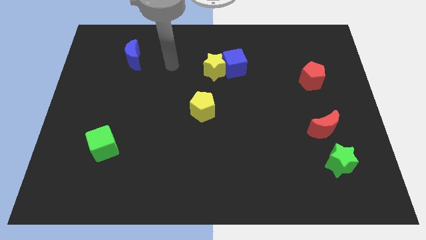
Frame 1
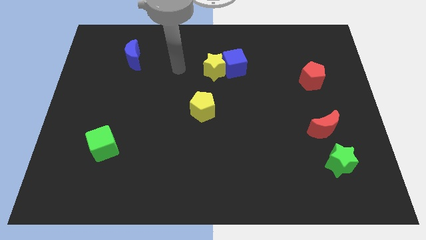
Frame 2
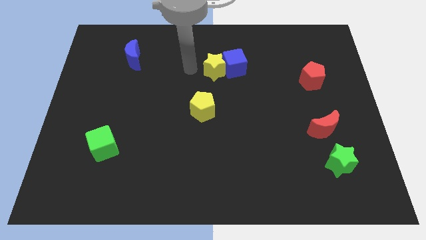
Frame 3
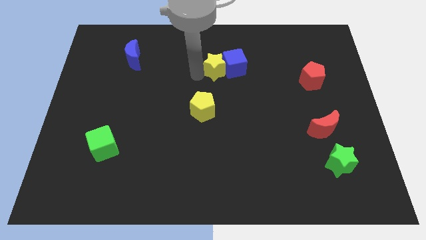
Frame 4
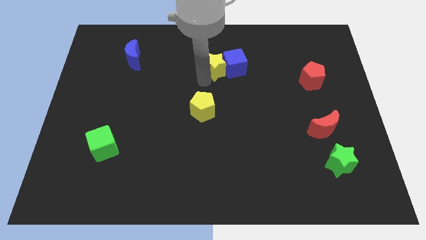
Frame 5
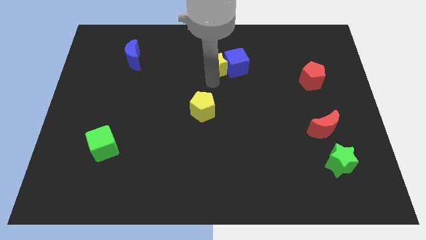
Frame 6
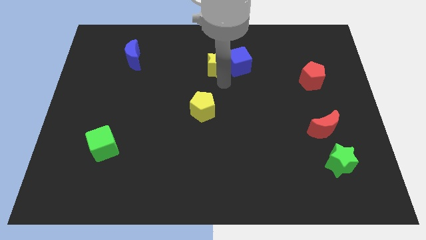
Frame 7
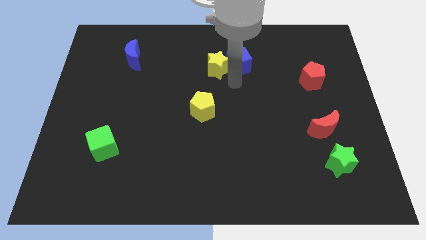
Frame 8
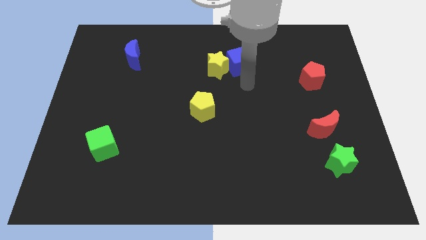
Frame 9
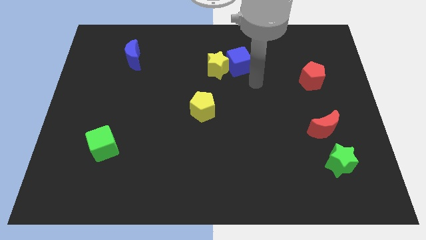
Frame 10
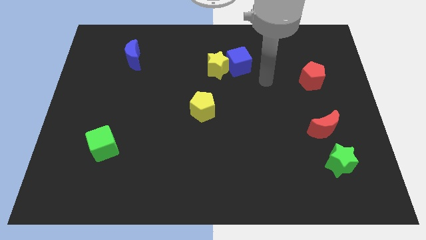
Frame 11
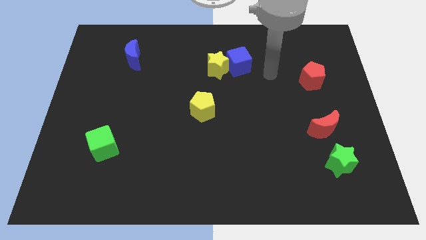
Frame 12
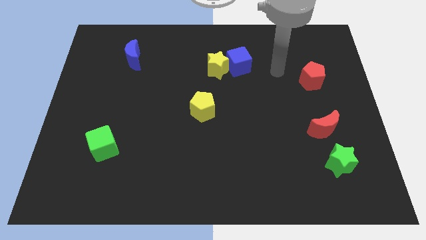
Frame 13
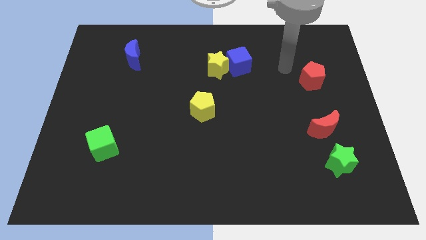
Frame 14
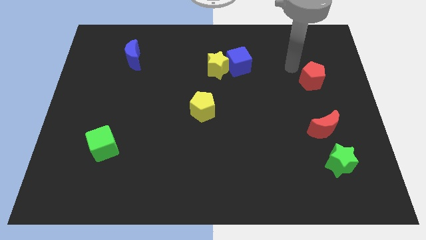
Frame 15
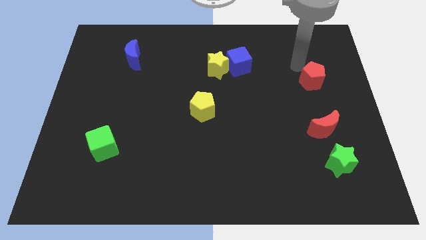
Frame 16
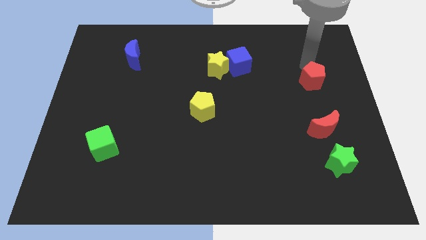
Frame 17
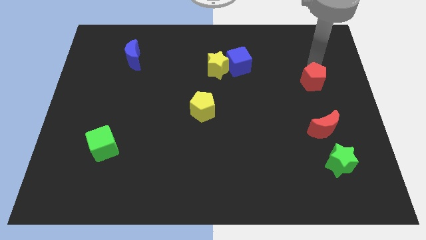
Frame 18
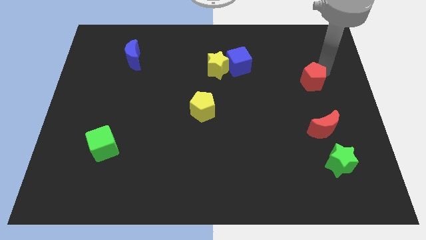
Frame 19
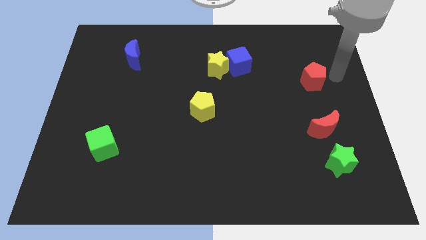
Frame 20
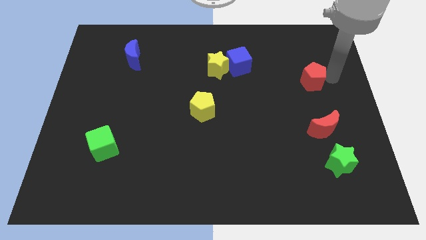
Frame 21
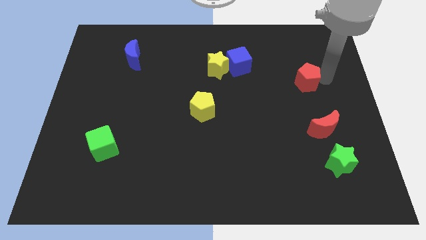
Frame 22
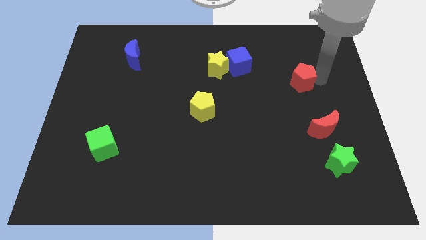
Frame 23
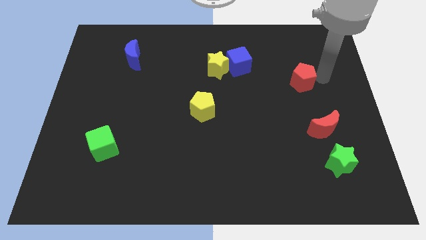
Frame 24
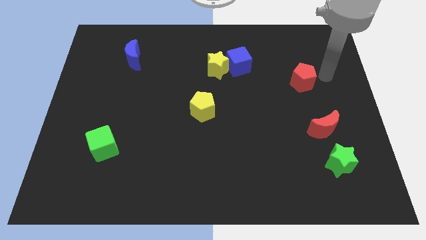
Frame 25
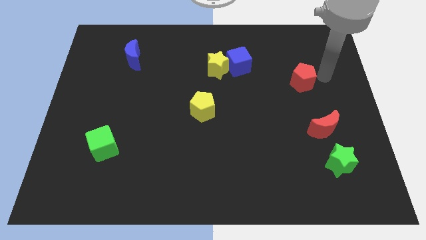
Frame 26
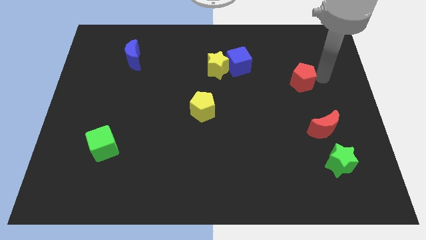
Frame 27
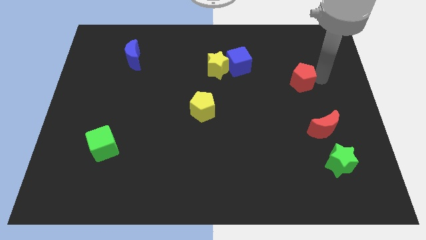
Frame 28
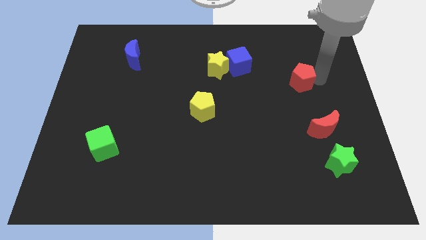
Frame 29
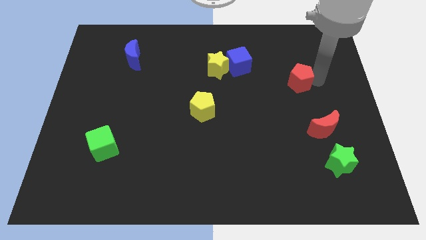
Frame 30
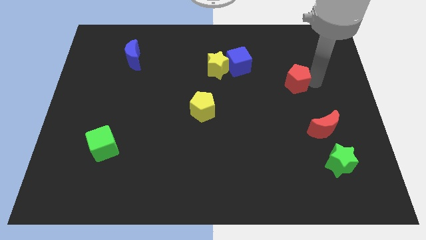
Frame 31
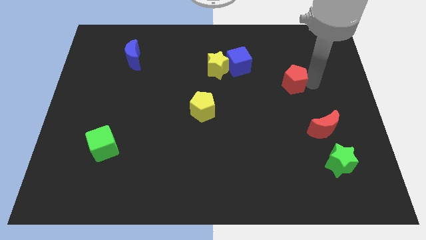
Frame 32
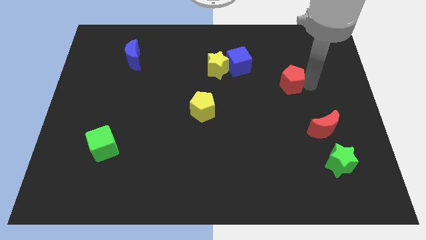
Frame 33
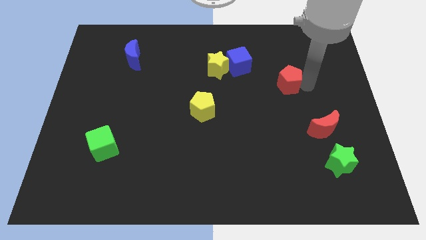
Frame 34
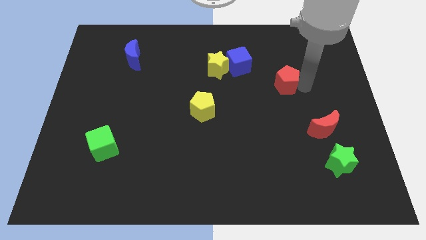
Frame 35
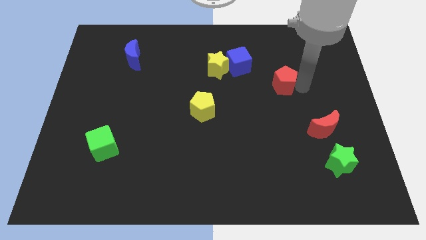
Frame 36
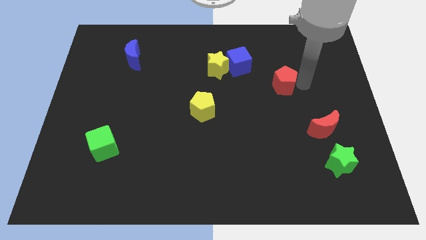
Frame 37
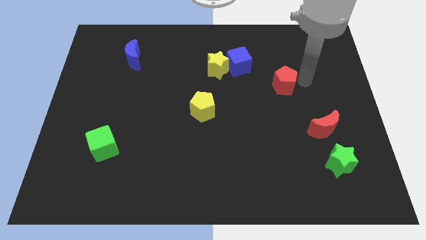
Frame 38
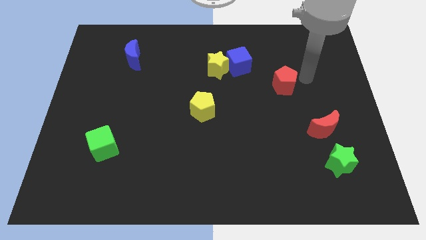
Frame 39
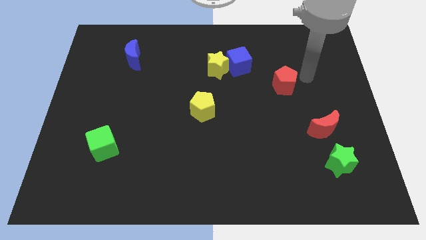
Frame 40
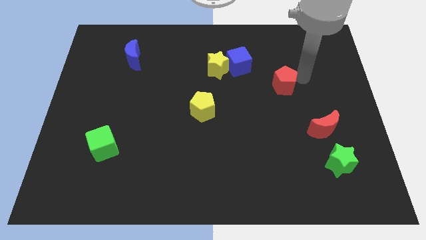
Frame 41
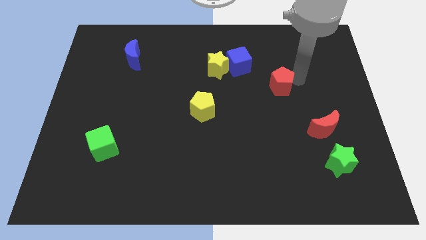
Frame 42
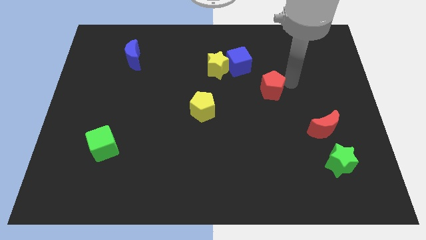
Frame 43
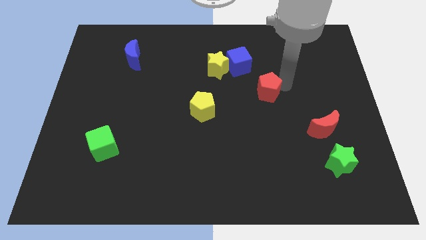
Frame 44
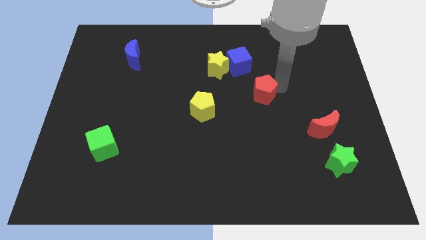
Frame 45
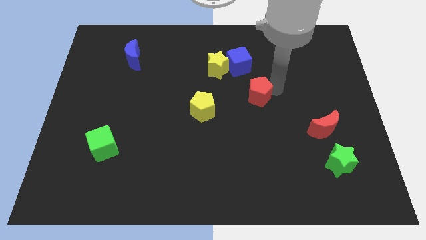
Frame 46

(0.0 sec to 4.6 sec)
push the red pentagon to the bottom side of the blue cube

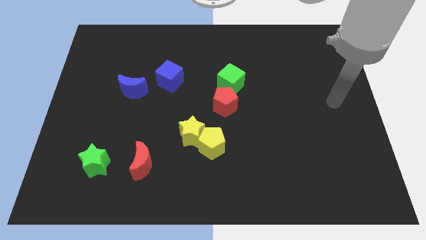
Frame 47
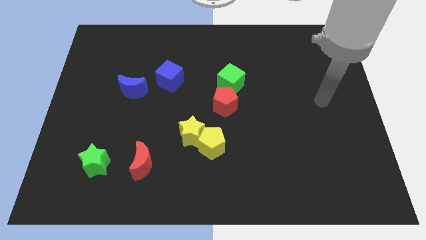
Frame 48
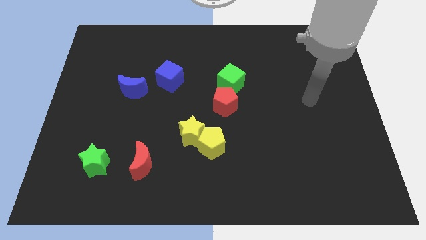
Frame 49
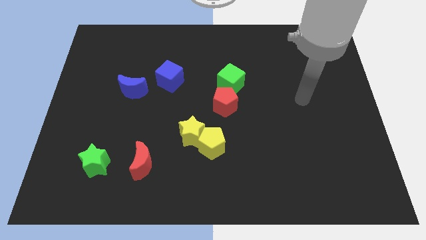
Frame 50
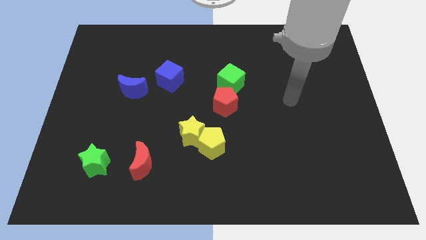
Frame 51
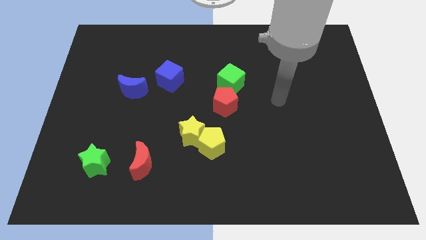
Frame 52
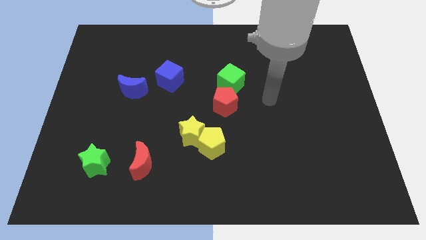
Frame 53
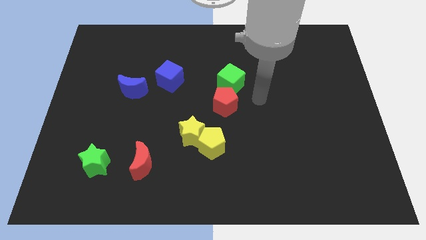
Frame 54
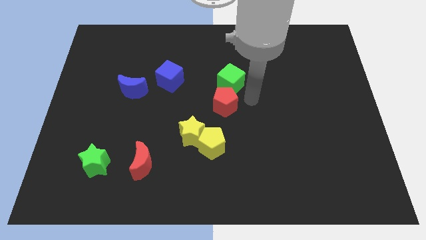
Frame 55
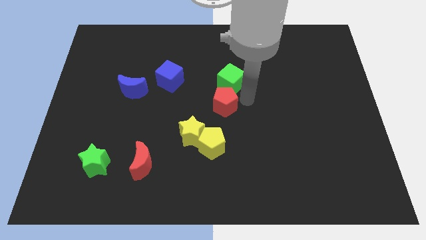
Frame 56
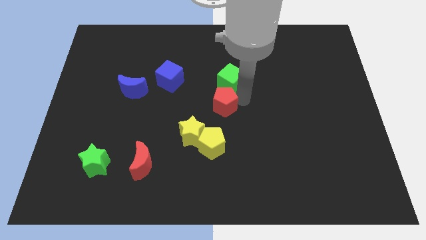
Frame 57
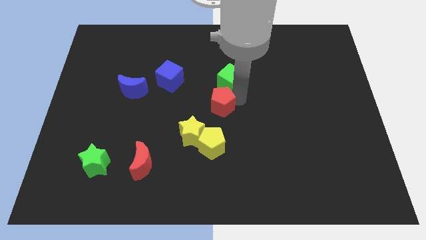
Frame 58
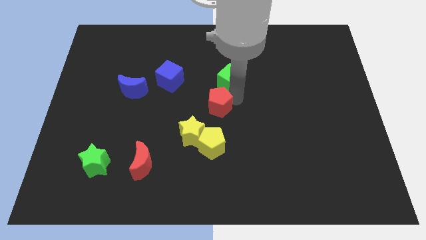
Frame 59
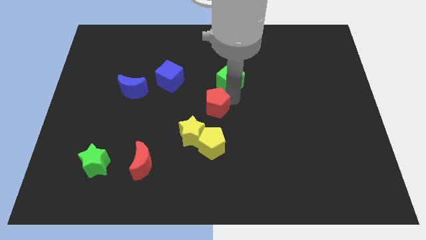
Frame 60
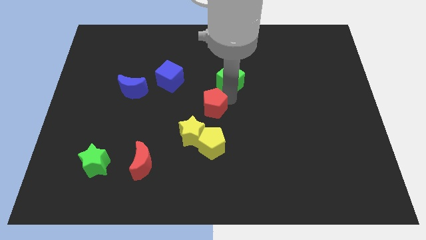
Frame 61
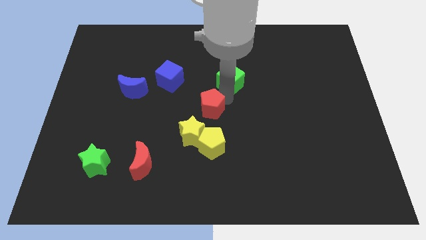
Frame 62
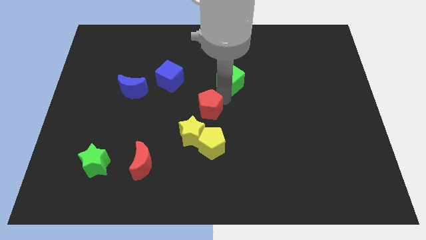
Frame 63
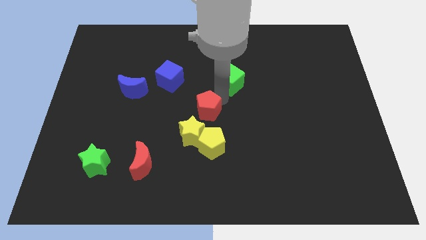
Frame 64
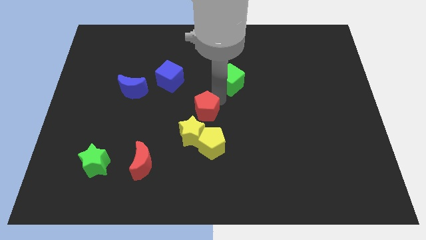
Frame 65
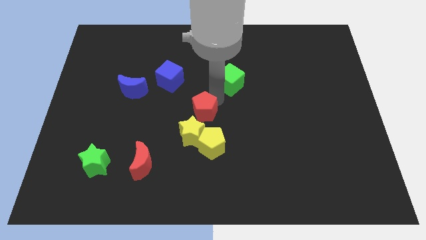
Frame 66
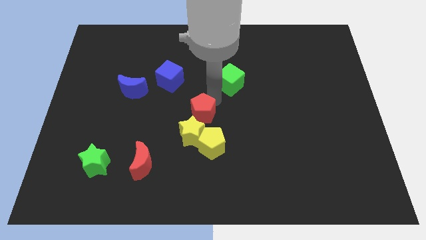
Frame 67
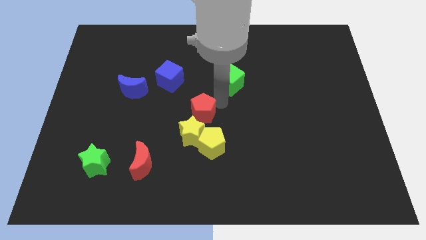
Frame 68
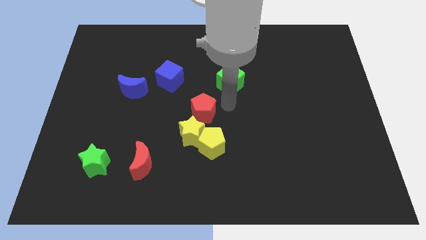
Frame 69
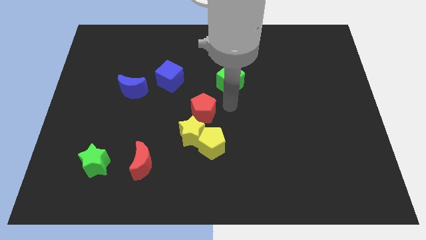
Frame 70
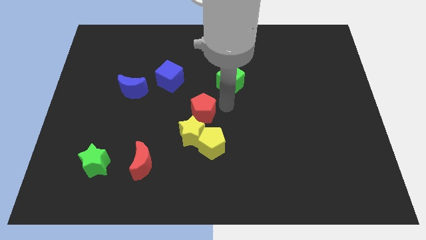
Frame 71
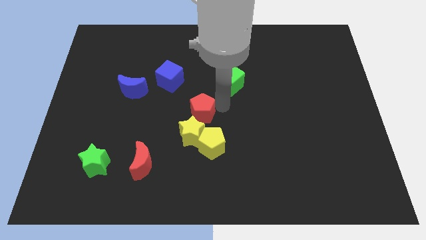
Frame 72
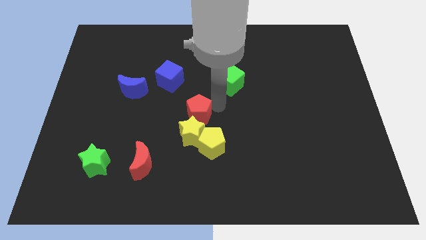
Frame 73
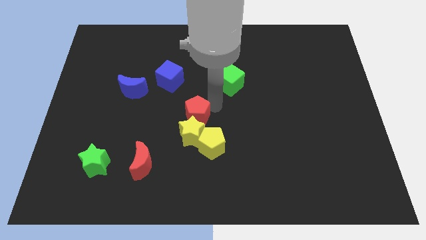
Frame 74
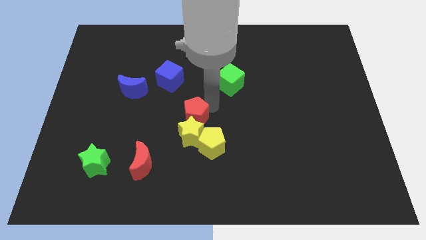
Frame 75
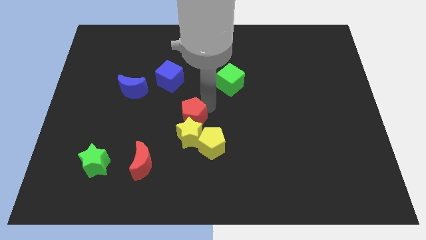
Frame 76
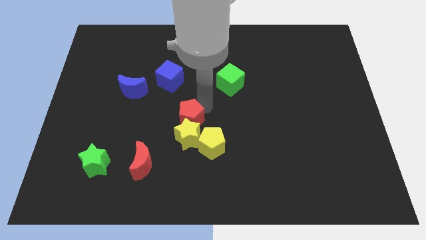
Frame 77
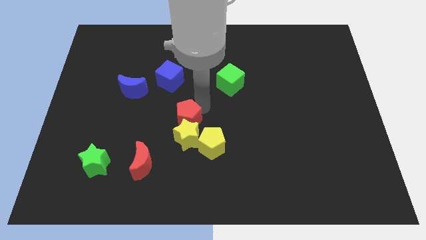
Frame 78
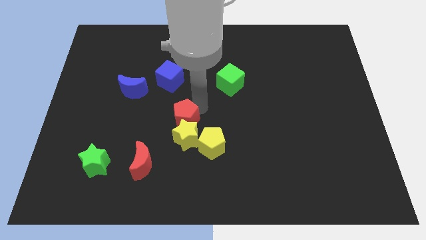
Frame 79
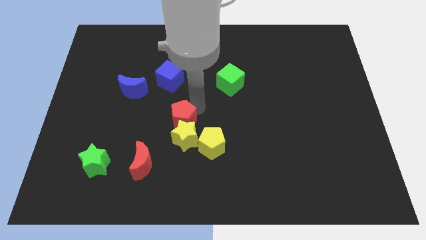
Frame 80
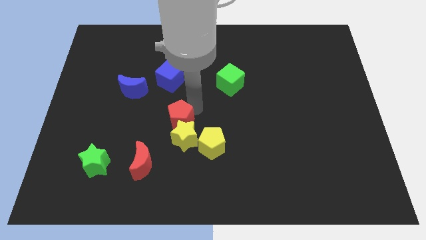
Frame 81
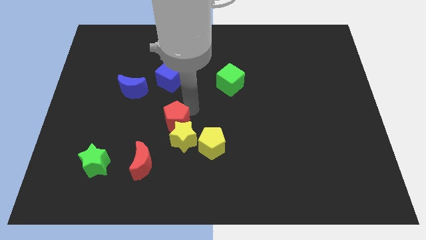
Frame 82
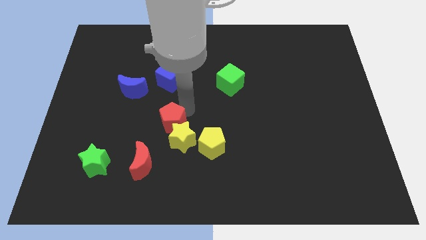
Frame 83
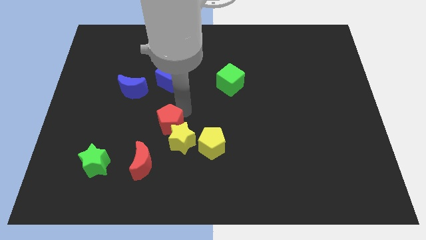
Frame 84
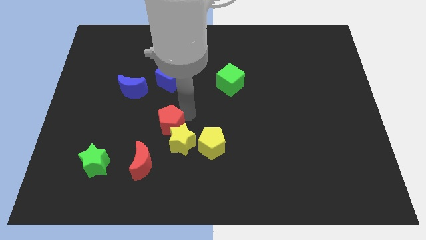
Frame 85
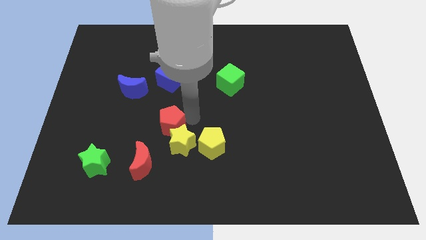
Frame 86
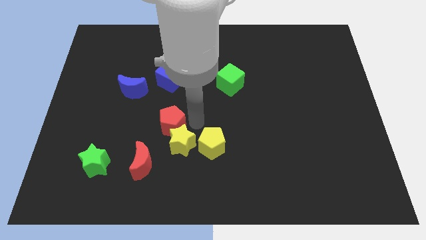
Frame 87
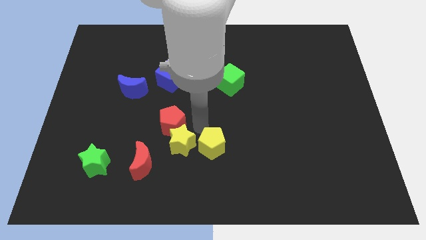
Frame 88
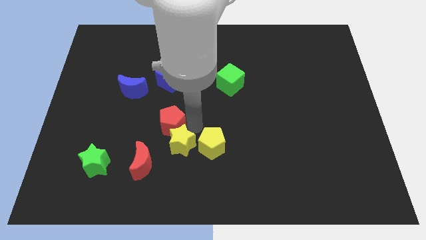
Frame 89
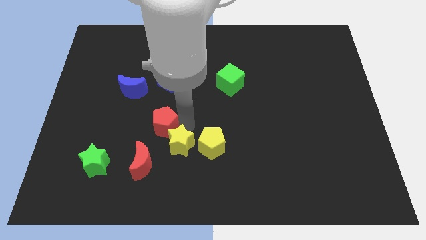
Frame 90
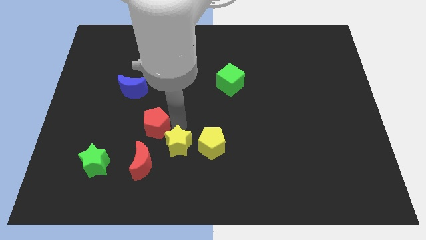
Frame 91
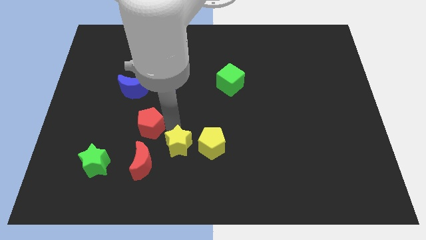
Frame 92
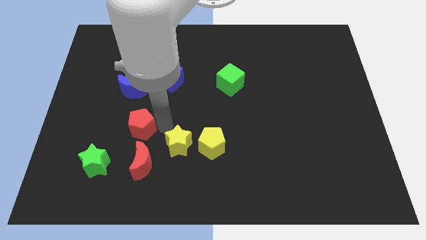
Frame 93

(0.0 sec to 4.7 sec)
move the red pentagon below the blue moon
